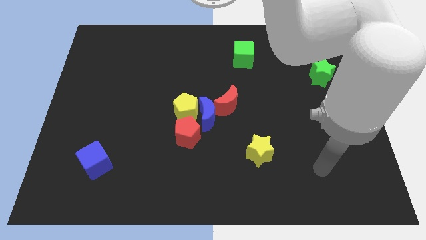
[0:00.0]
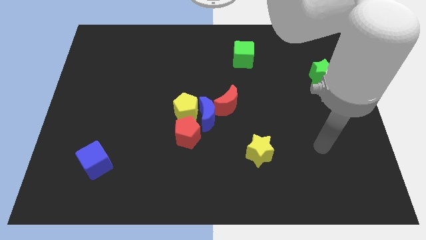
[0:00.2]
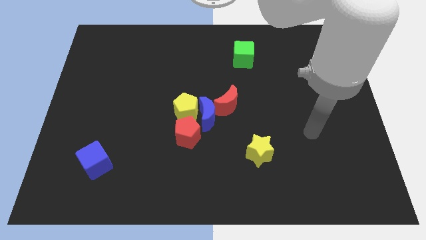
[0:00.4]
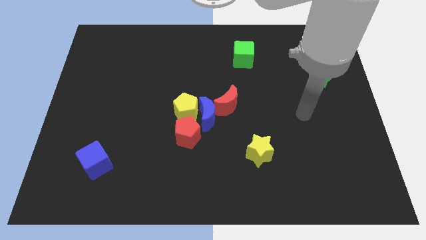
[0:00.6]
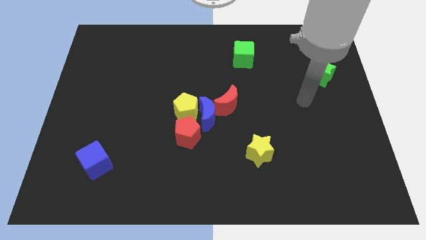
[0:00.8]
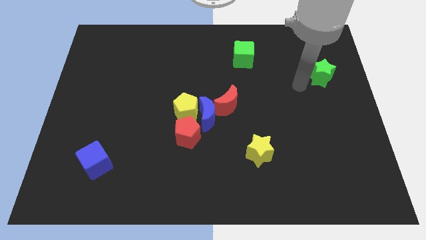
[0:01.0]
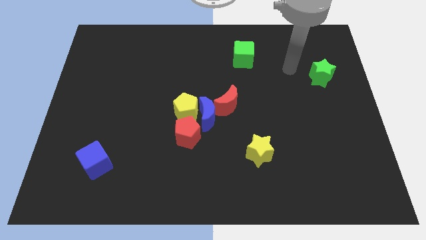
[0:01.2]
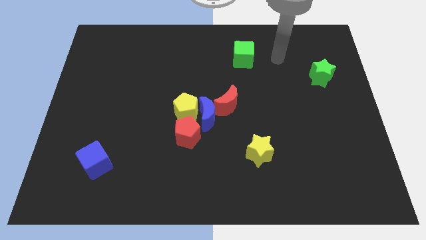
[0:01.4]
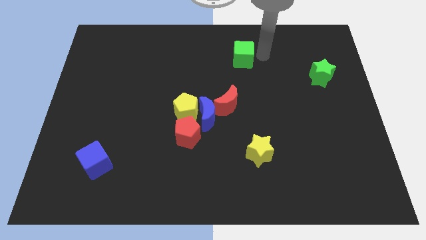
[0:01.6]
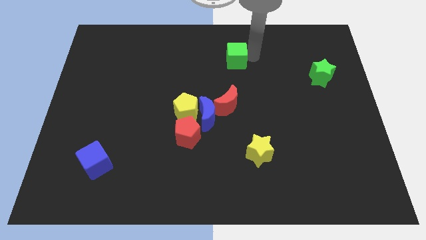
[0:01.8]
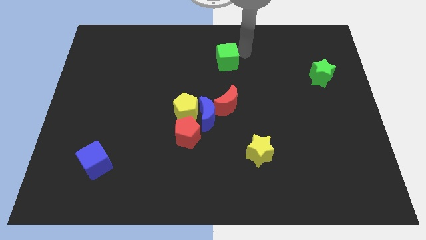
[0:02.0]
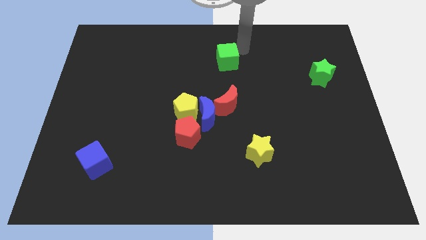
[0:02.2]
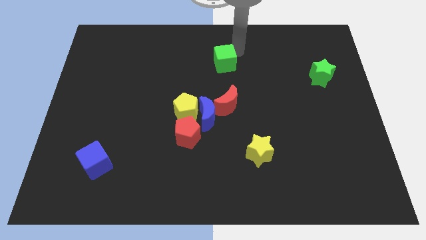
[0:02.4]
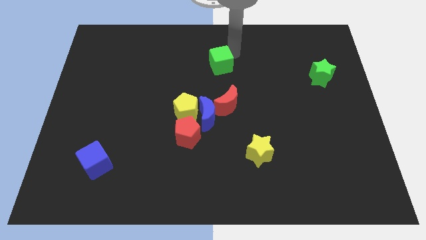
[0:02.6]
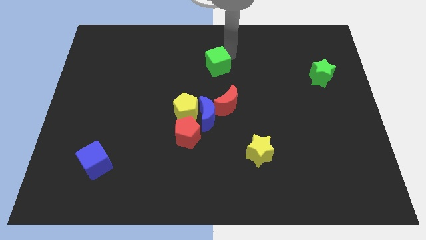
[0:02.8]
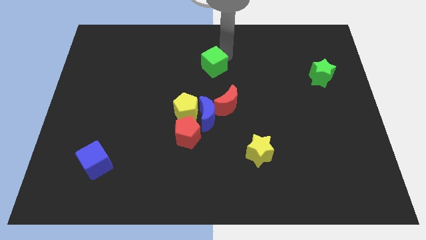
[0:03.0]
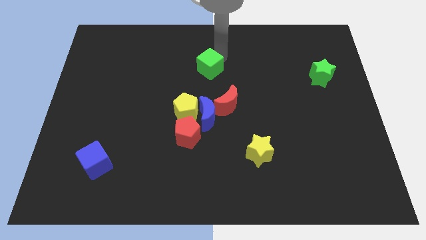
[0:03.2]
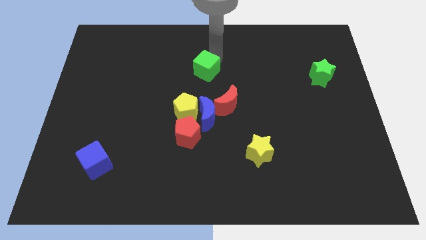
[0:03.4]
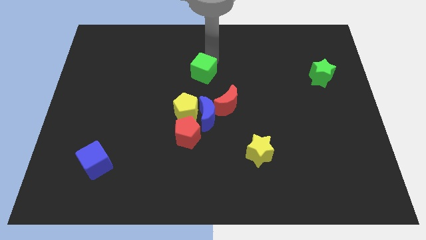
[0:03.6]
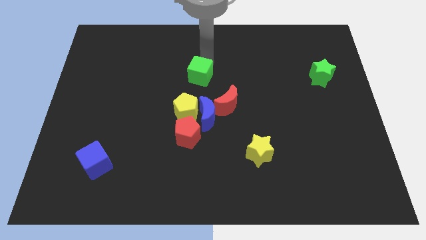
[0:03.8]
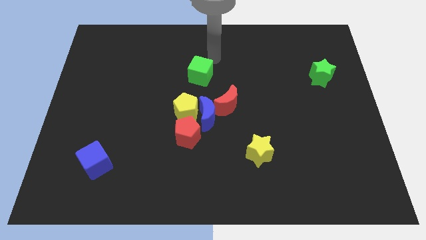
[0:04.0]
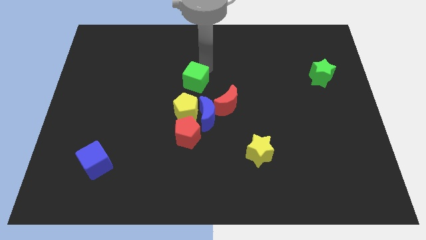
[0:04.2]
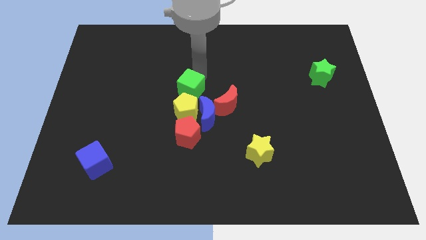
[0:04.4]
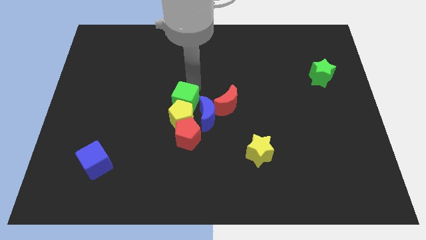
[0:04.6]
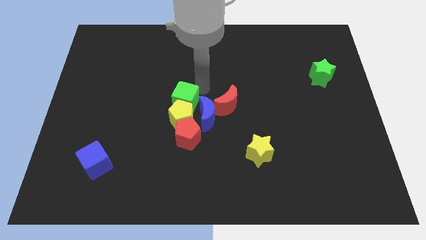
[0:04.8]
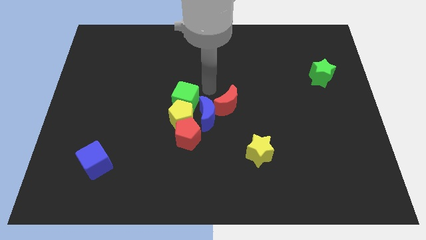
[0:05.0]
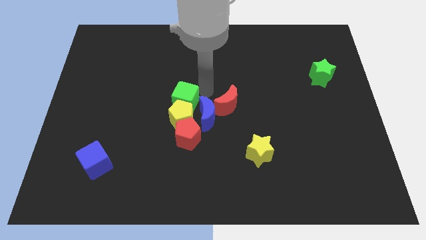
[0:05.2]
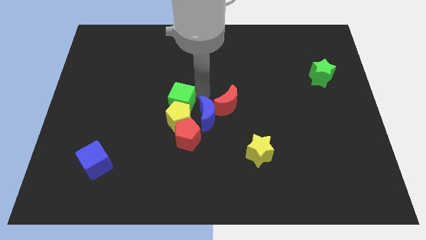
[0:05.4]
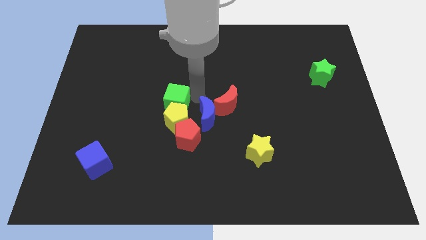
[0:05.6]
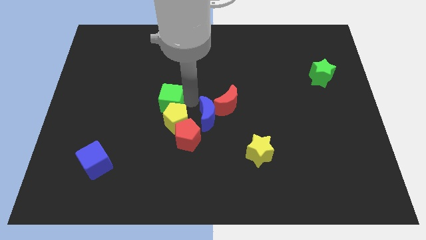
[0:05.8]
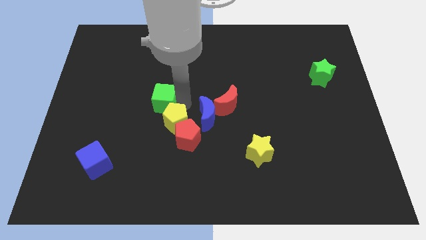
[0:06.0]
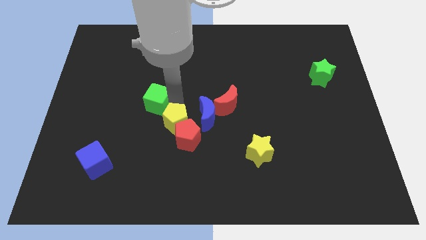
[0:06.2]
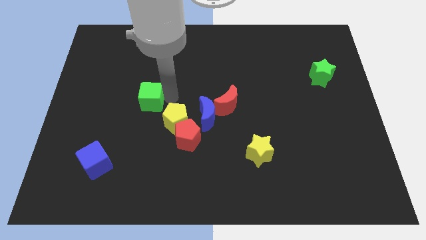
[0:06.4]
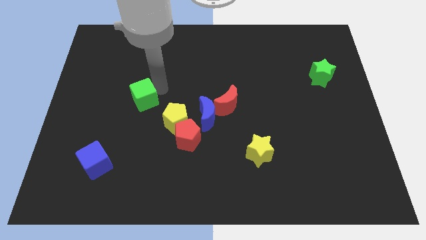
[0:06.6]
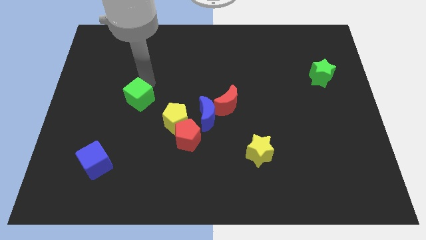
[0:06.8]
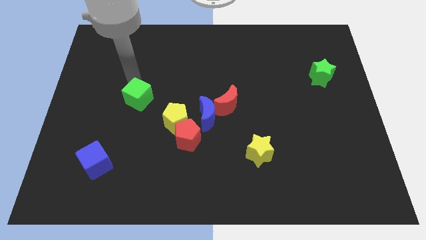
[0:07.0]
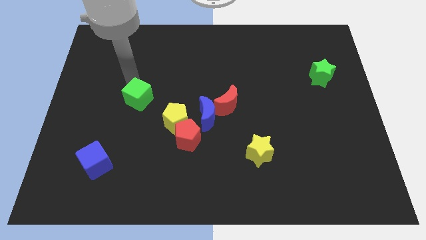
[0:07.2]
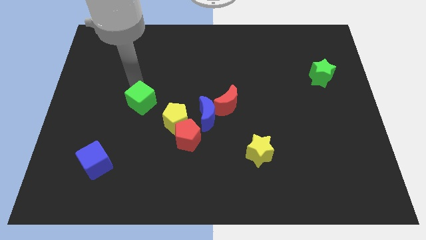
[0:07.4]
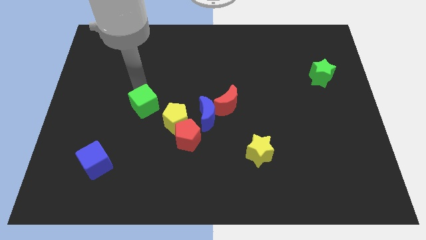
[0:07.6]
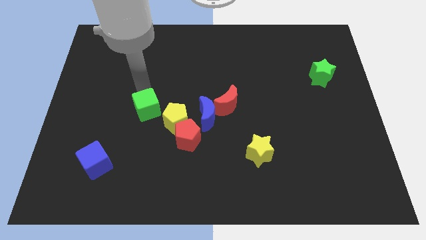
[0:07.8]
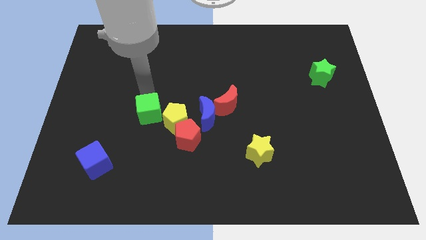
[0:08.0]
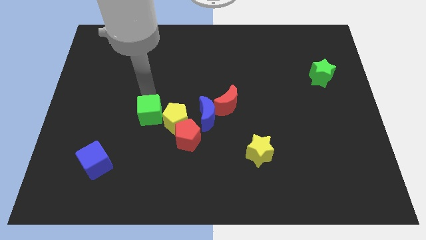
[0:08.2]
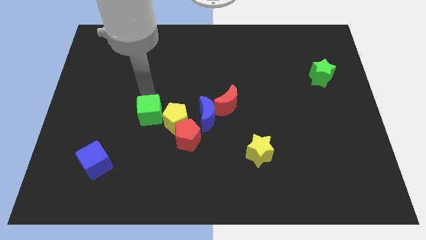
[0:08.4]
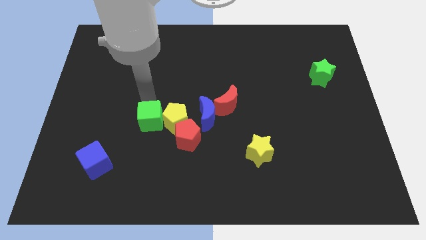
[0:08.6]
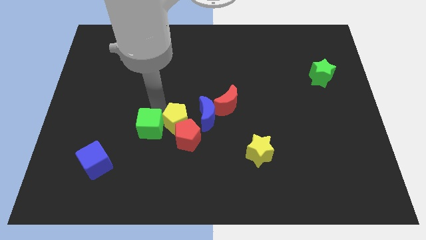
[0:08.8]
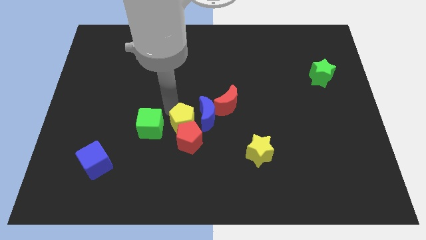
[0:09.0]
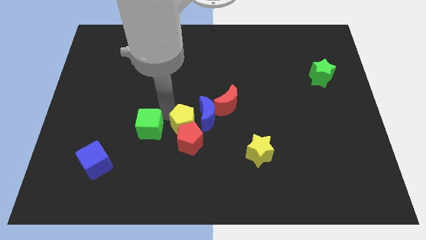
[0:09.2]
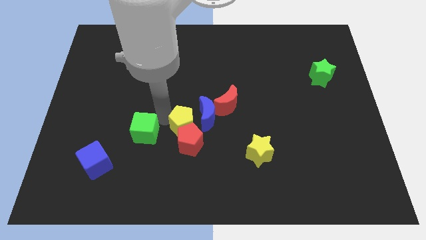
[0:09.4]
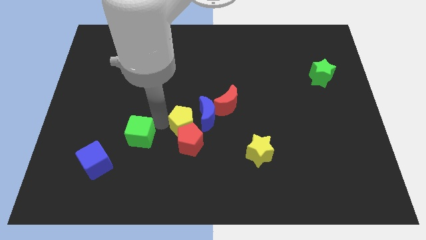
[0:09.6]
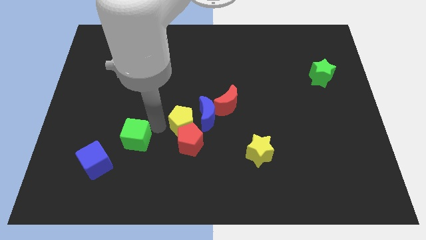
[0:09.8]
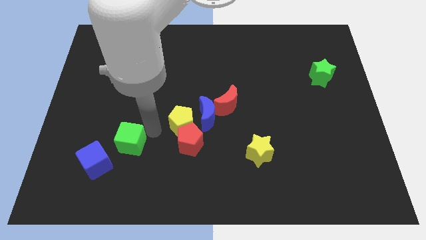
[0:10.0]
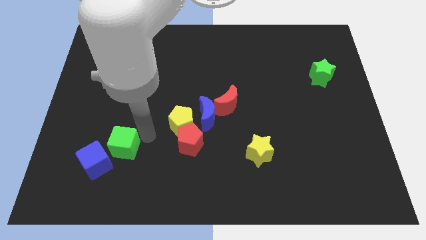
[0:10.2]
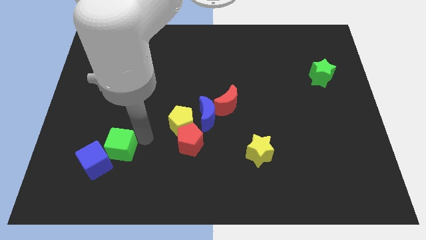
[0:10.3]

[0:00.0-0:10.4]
put the green cube towards the blue cube

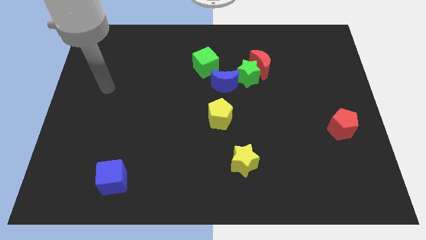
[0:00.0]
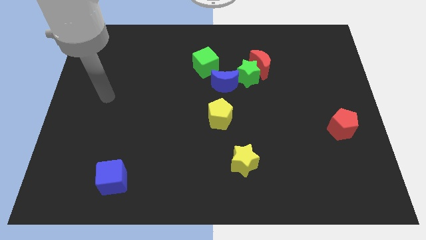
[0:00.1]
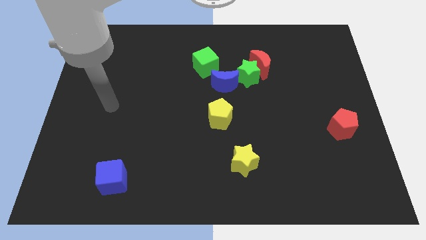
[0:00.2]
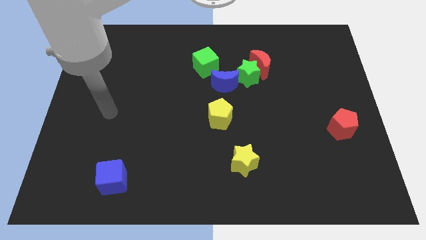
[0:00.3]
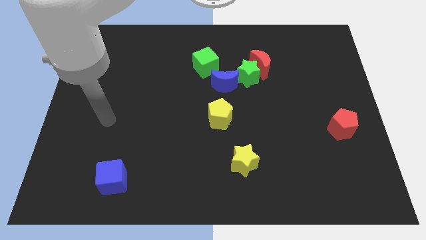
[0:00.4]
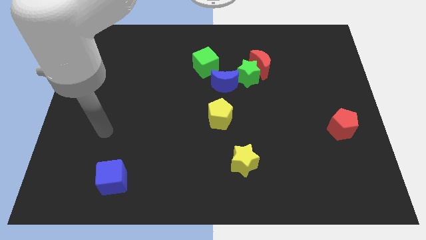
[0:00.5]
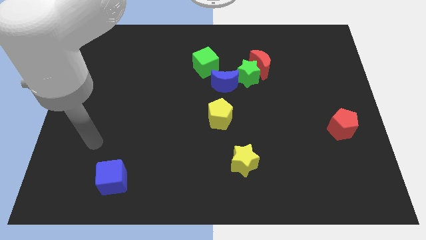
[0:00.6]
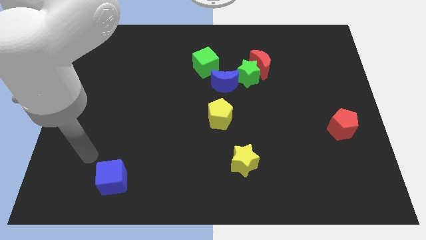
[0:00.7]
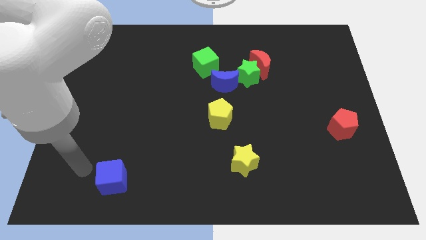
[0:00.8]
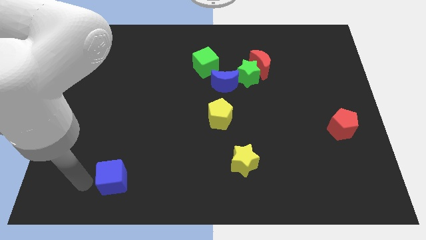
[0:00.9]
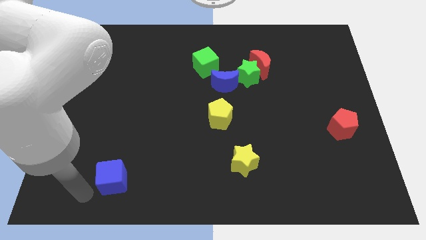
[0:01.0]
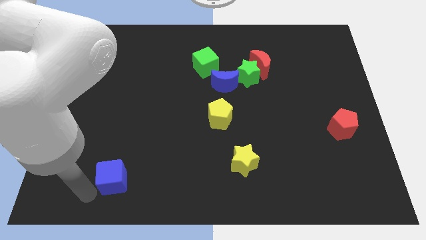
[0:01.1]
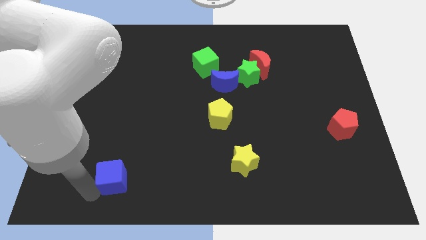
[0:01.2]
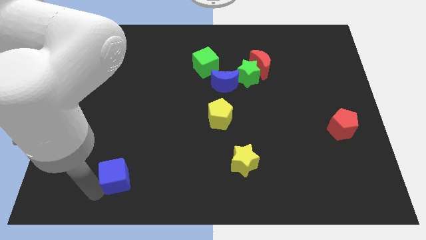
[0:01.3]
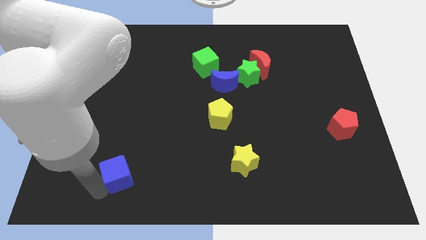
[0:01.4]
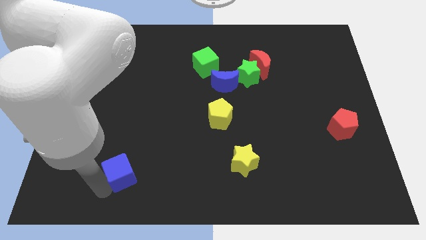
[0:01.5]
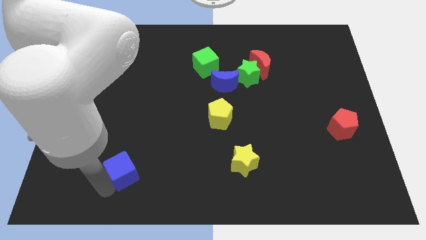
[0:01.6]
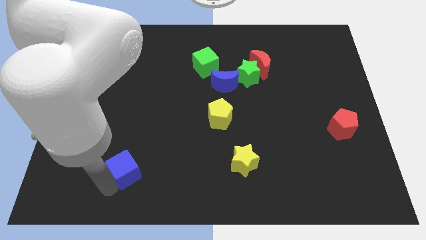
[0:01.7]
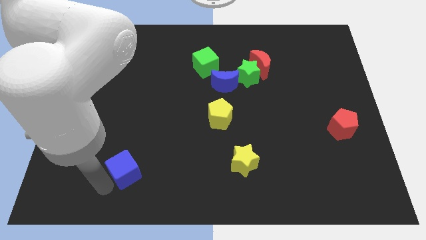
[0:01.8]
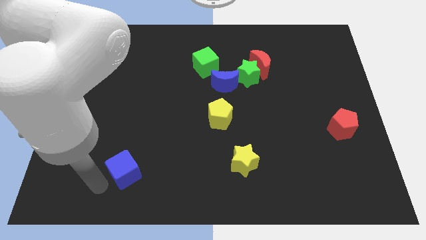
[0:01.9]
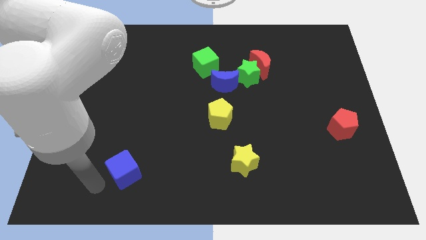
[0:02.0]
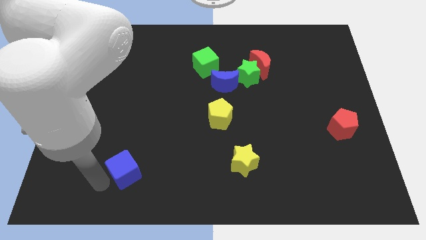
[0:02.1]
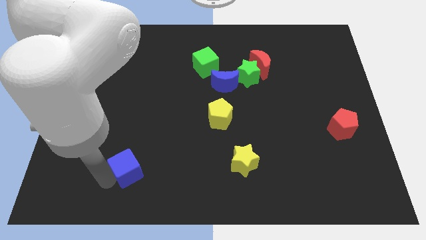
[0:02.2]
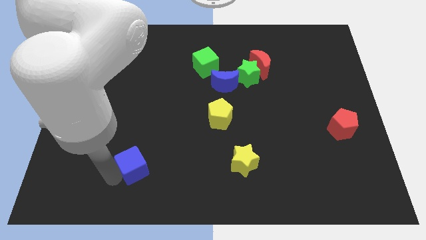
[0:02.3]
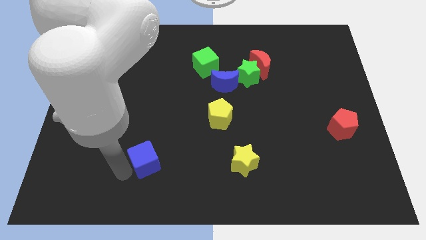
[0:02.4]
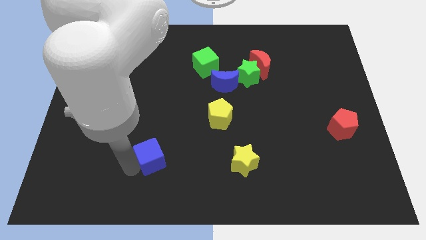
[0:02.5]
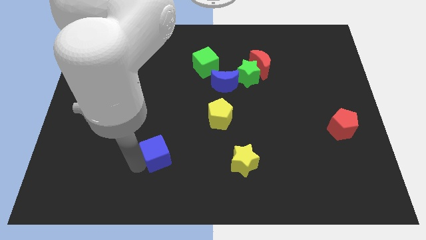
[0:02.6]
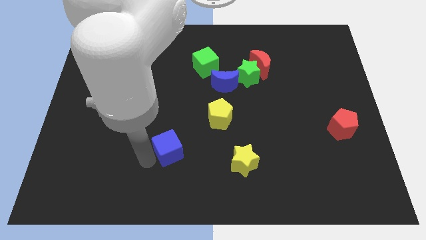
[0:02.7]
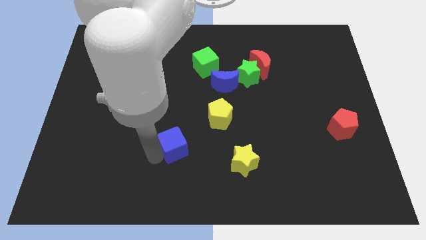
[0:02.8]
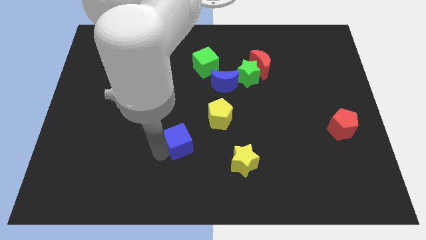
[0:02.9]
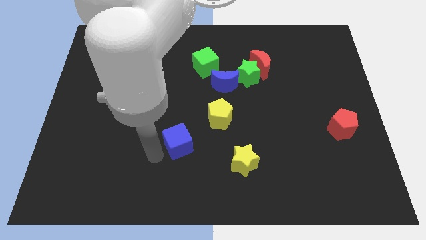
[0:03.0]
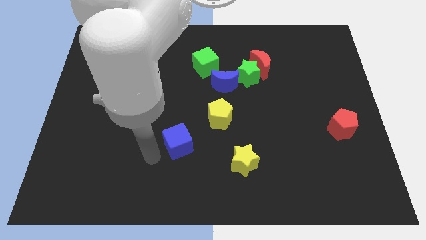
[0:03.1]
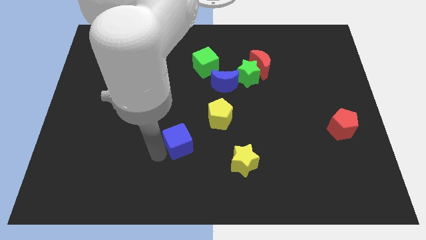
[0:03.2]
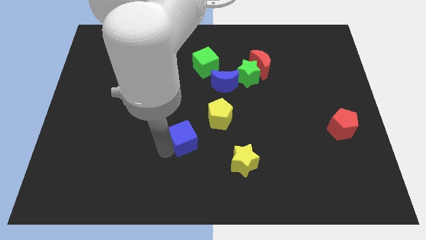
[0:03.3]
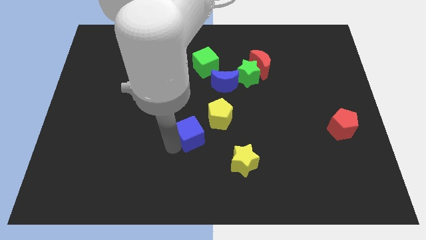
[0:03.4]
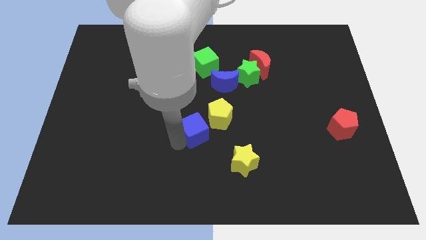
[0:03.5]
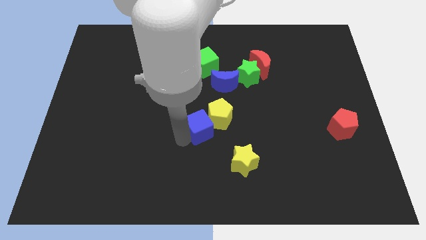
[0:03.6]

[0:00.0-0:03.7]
put the blue cube towards the yellow pentagon
